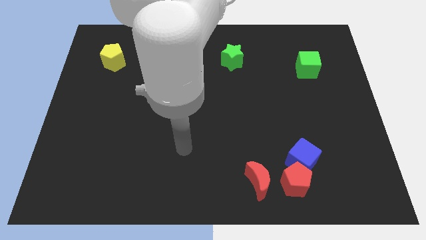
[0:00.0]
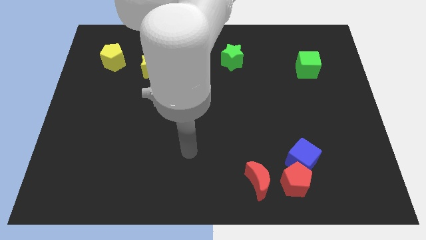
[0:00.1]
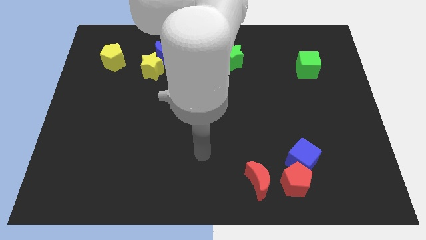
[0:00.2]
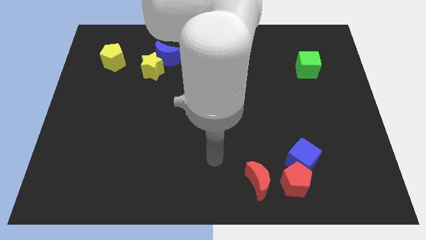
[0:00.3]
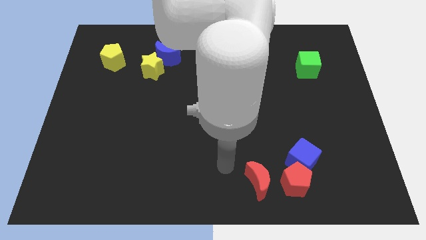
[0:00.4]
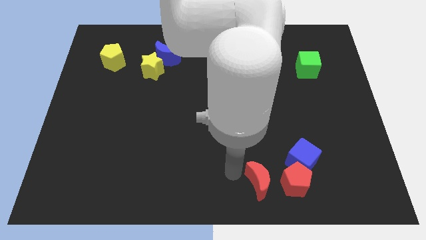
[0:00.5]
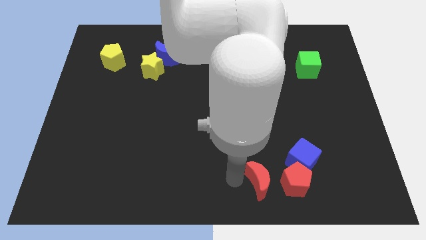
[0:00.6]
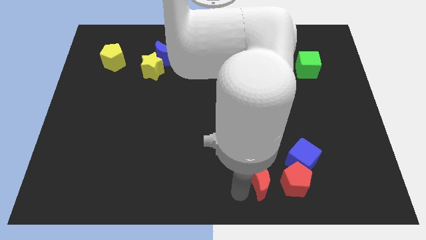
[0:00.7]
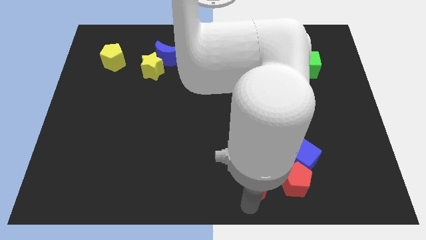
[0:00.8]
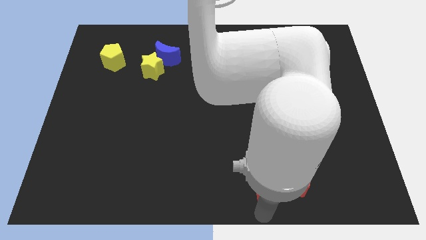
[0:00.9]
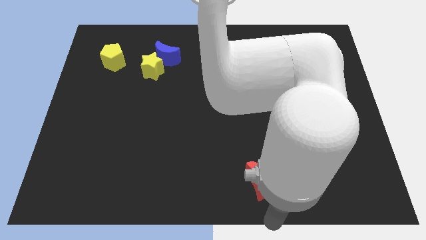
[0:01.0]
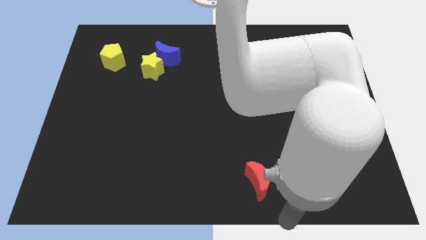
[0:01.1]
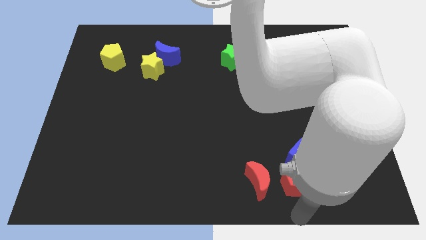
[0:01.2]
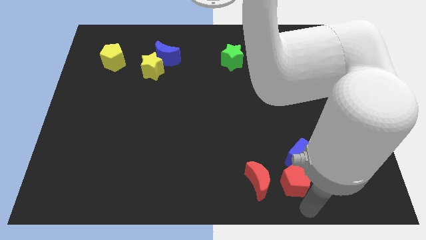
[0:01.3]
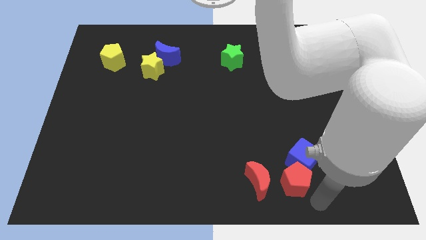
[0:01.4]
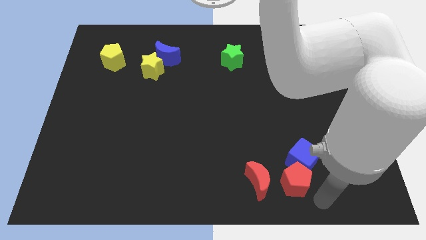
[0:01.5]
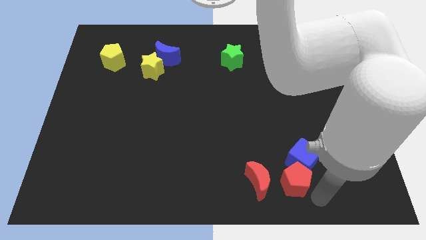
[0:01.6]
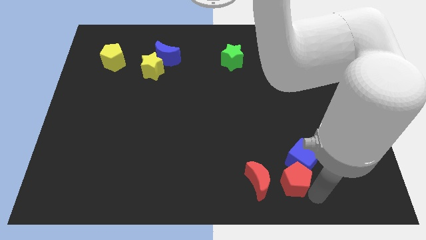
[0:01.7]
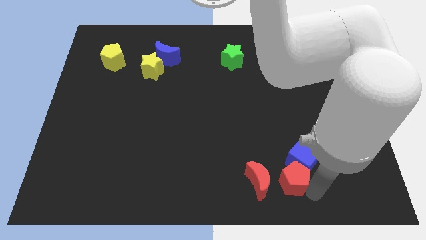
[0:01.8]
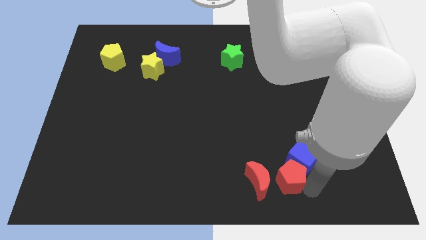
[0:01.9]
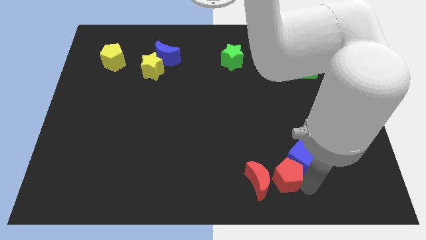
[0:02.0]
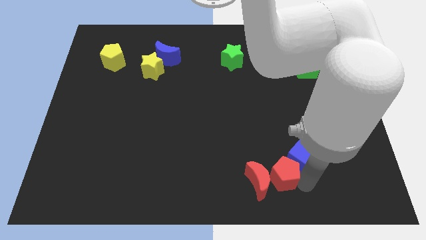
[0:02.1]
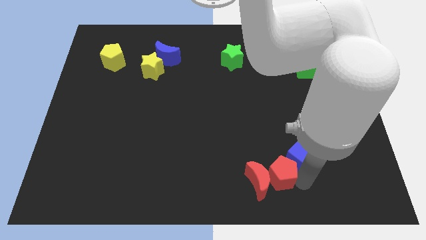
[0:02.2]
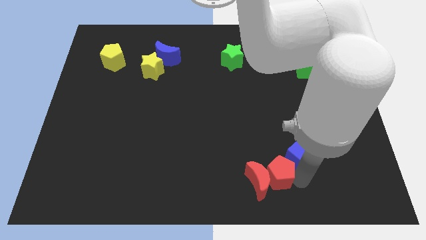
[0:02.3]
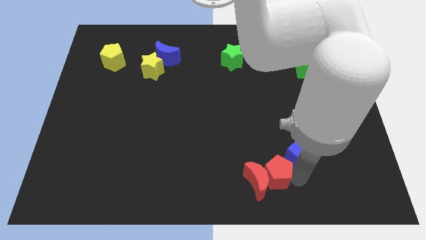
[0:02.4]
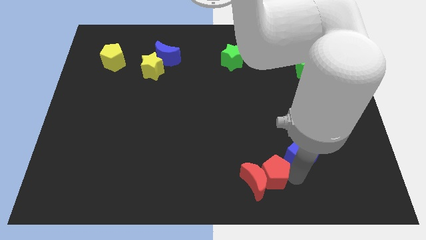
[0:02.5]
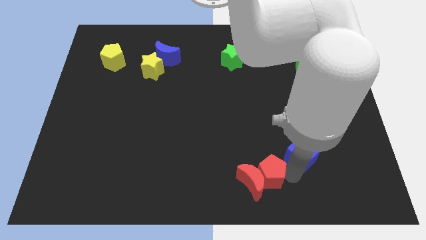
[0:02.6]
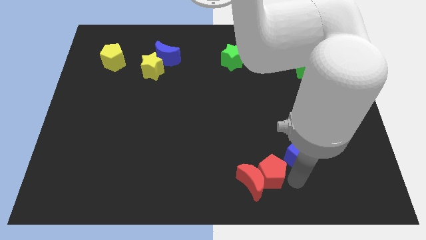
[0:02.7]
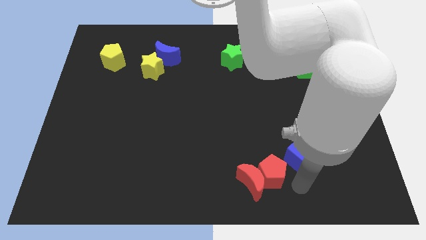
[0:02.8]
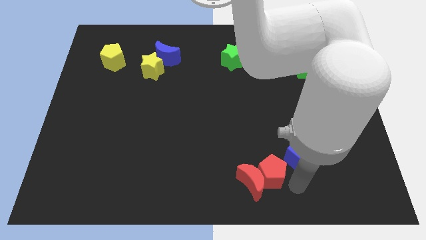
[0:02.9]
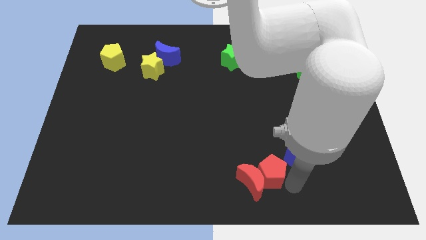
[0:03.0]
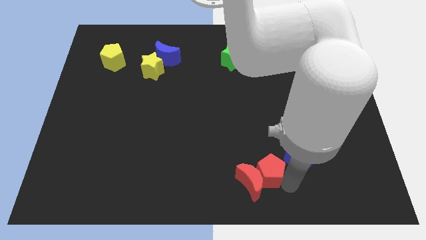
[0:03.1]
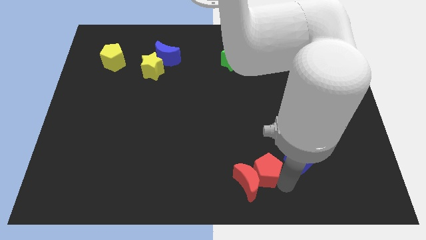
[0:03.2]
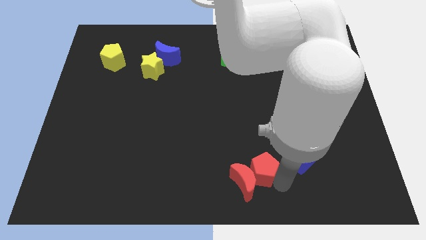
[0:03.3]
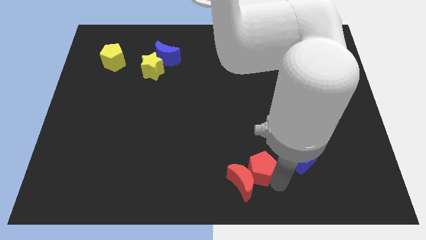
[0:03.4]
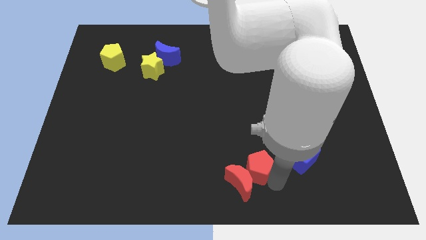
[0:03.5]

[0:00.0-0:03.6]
push the red pentagon to the left slightly

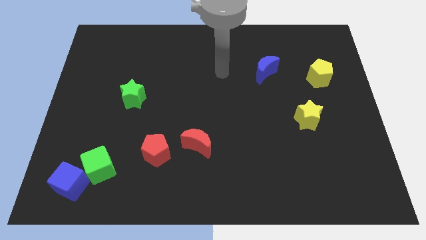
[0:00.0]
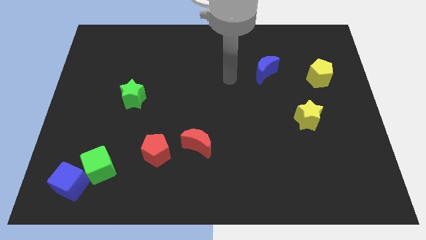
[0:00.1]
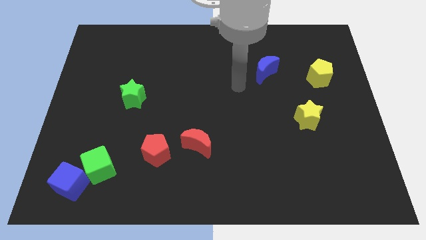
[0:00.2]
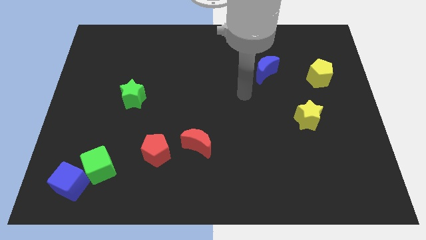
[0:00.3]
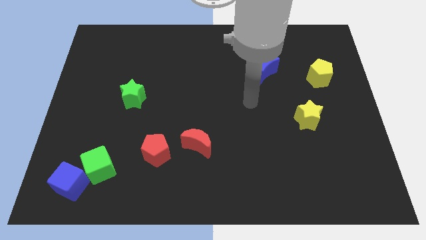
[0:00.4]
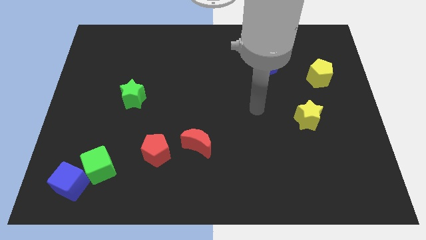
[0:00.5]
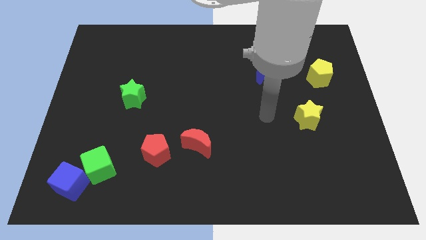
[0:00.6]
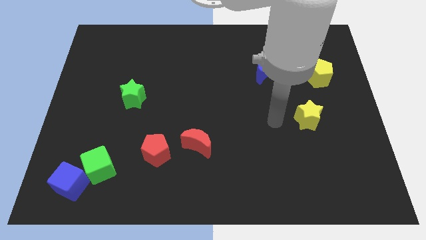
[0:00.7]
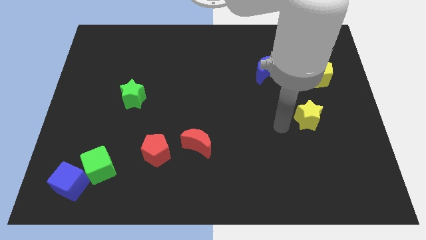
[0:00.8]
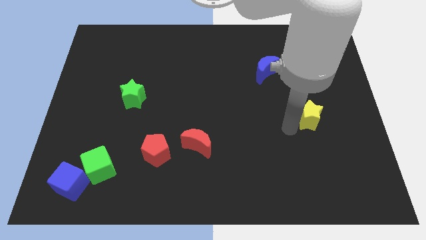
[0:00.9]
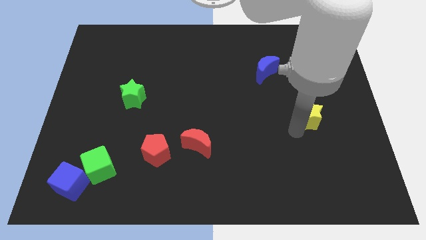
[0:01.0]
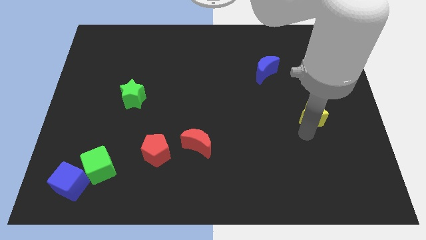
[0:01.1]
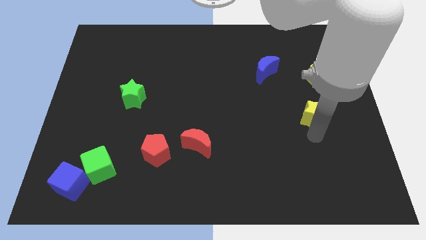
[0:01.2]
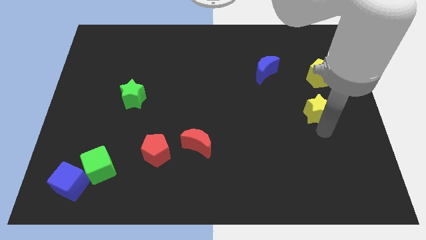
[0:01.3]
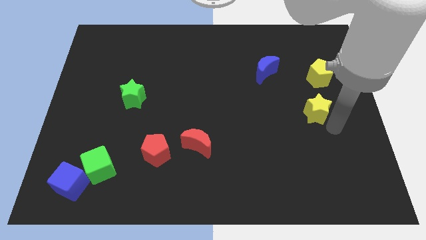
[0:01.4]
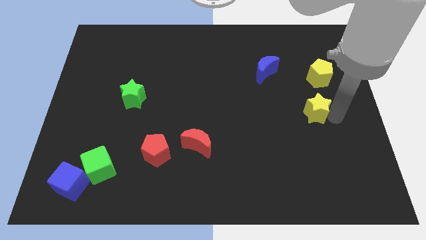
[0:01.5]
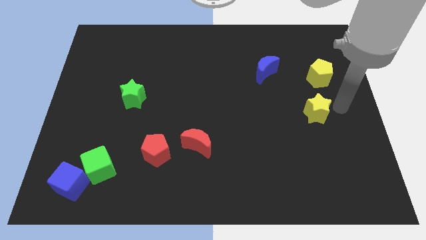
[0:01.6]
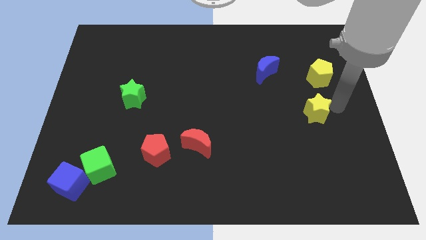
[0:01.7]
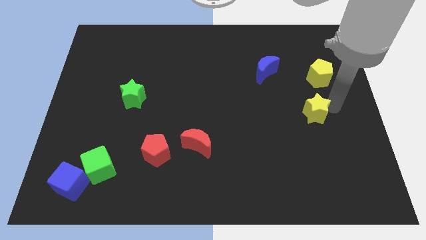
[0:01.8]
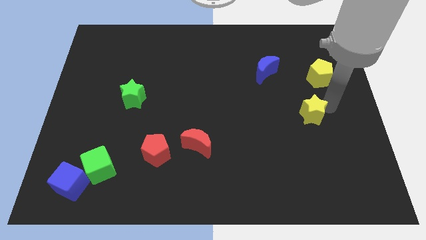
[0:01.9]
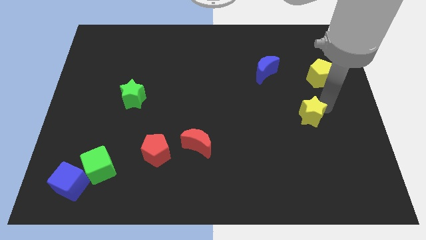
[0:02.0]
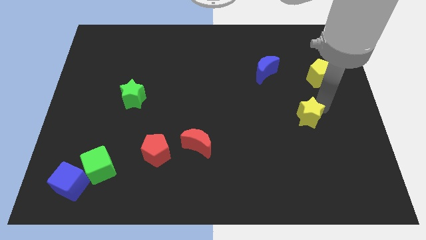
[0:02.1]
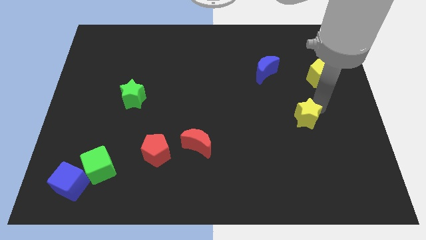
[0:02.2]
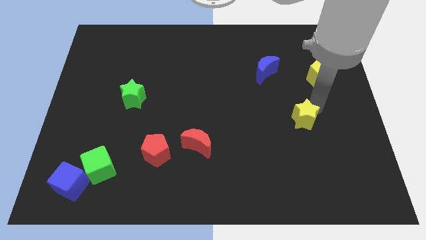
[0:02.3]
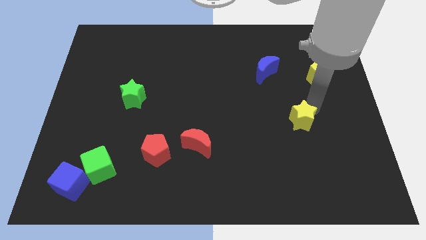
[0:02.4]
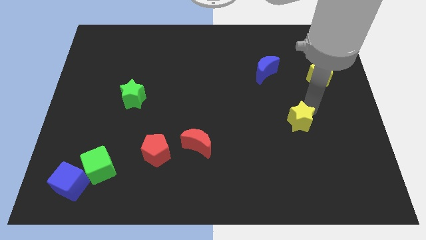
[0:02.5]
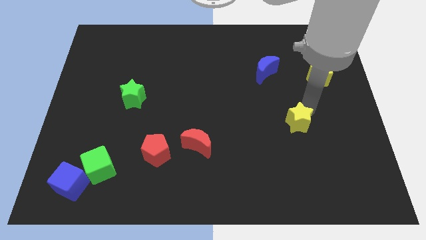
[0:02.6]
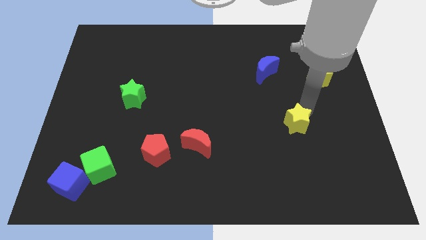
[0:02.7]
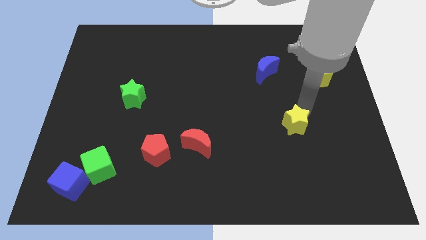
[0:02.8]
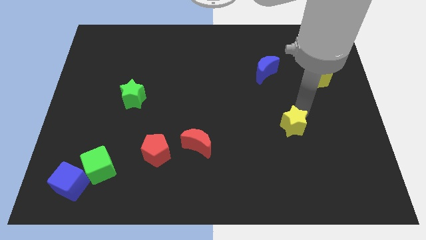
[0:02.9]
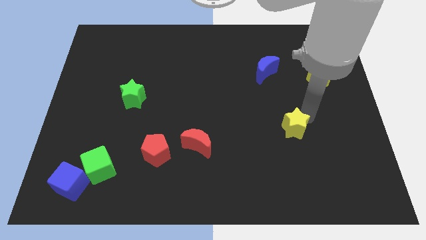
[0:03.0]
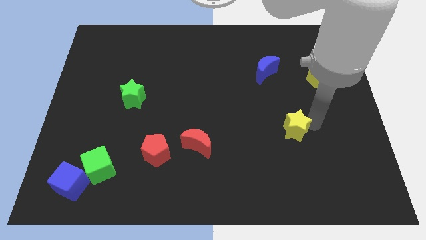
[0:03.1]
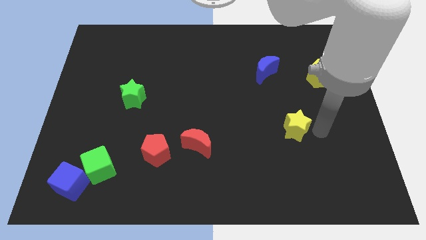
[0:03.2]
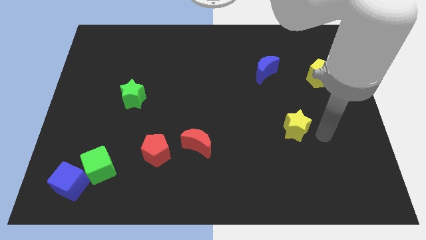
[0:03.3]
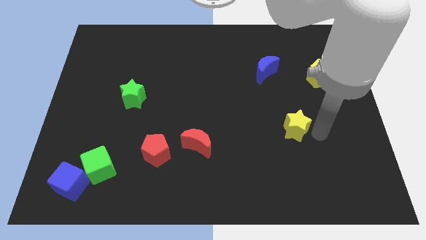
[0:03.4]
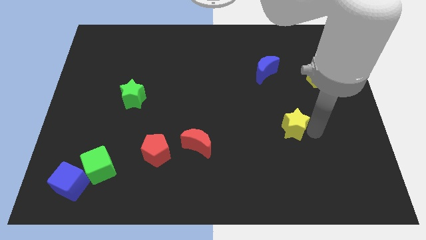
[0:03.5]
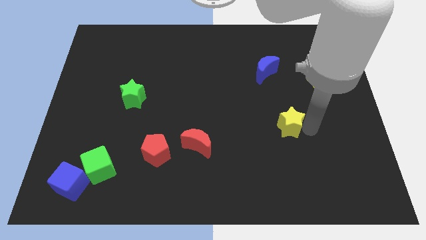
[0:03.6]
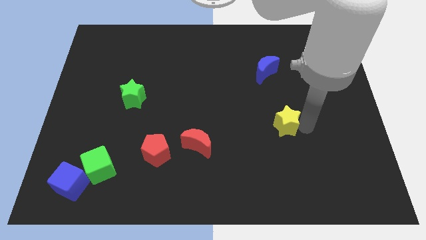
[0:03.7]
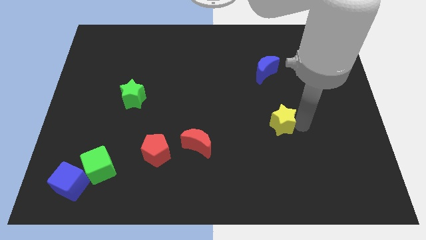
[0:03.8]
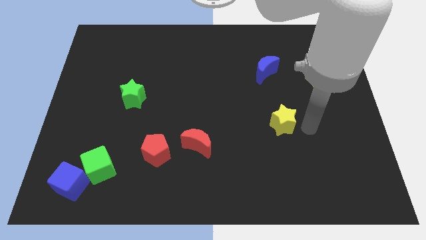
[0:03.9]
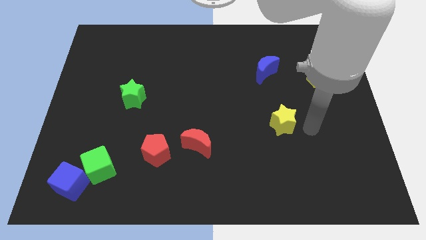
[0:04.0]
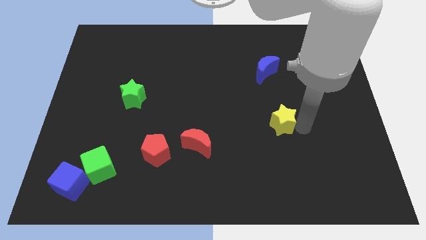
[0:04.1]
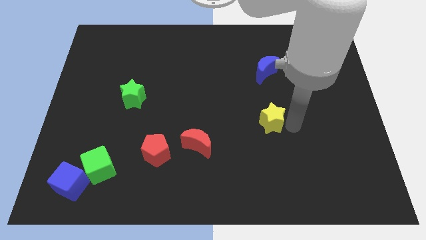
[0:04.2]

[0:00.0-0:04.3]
slightly move the yellow star left
